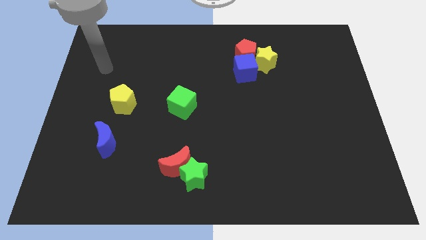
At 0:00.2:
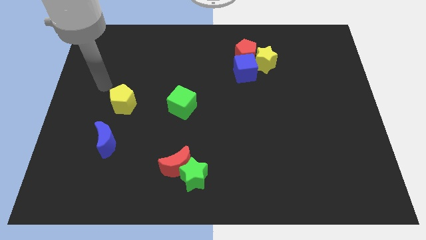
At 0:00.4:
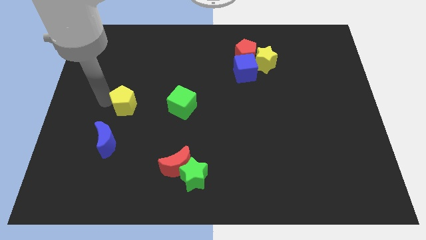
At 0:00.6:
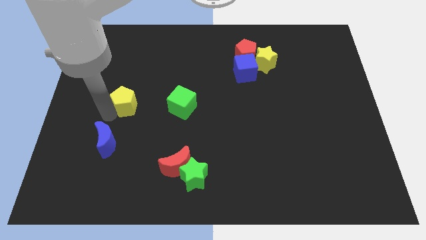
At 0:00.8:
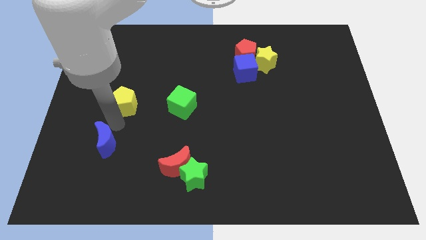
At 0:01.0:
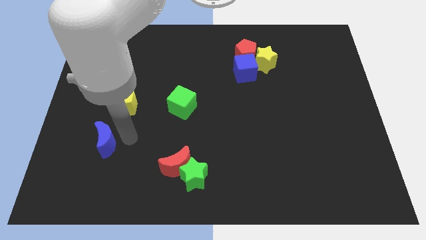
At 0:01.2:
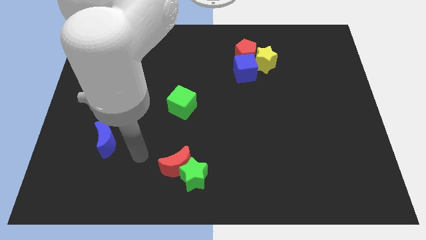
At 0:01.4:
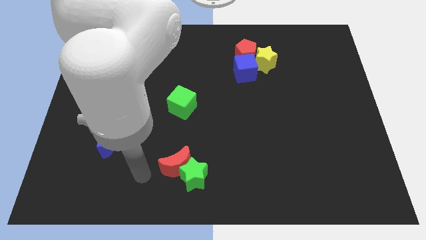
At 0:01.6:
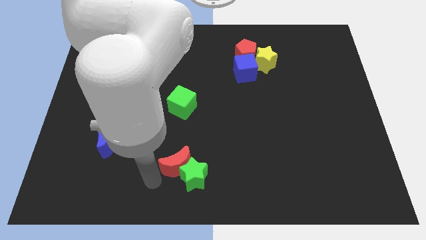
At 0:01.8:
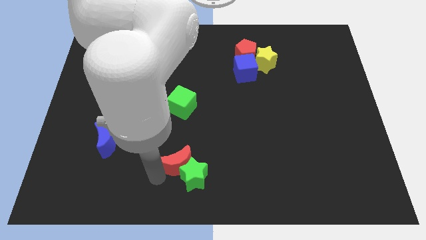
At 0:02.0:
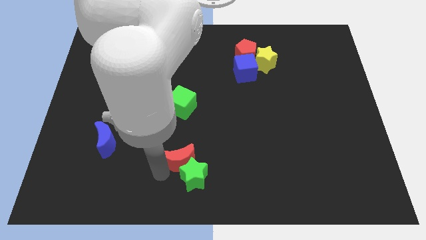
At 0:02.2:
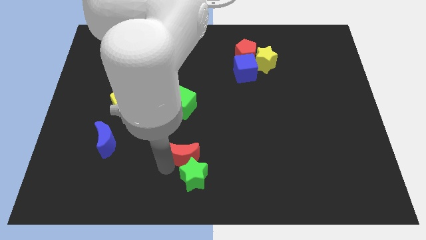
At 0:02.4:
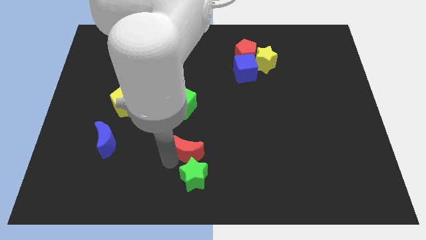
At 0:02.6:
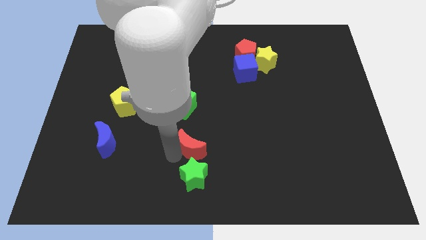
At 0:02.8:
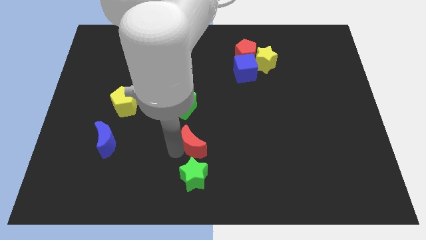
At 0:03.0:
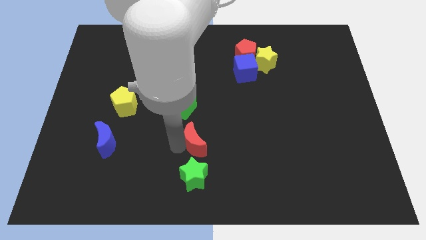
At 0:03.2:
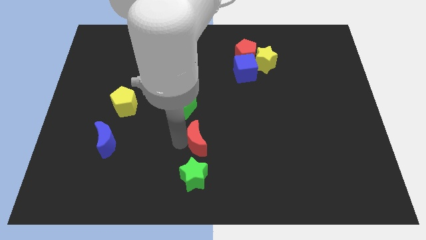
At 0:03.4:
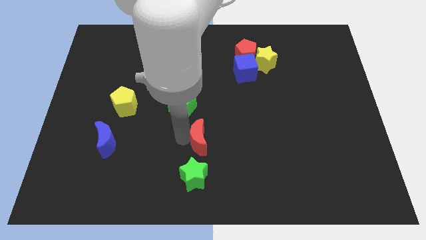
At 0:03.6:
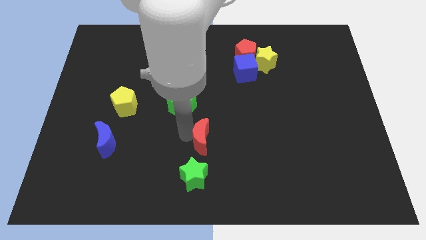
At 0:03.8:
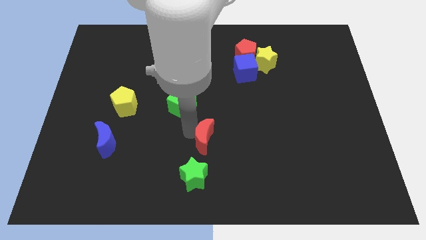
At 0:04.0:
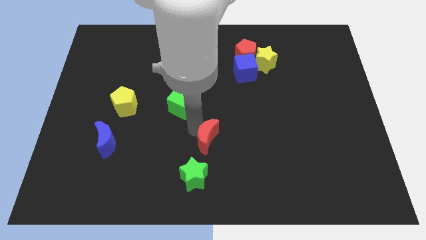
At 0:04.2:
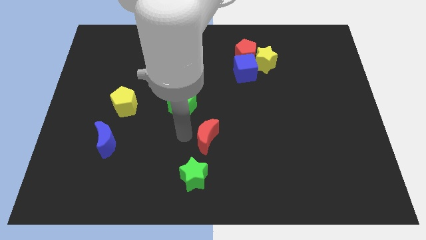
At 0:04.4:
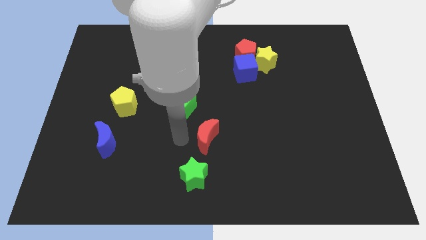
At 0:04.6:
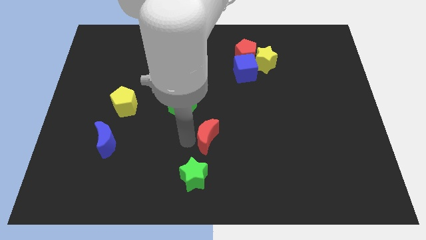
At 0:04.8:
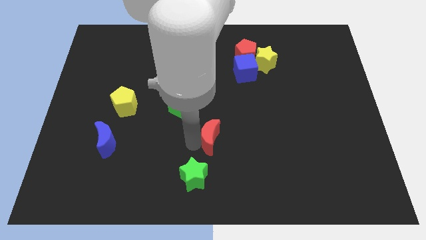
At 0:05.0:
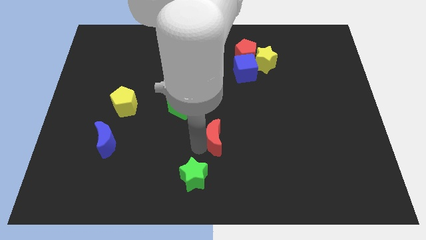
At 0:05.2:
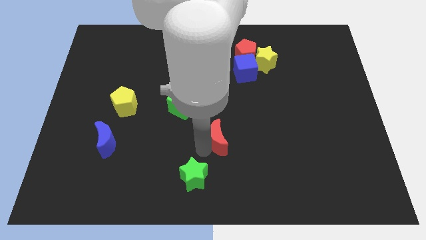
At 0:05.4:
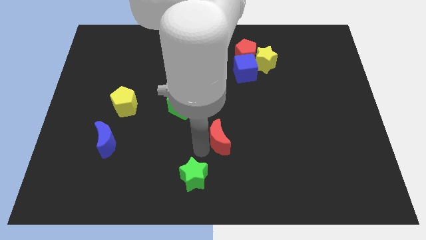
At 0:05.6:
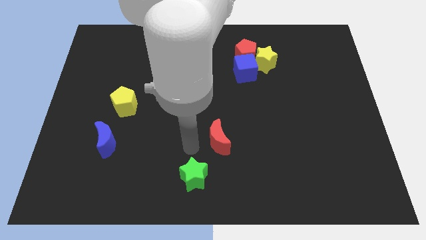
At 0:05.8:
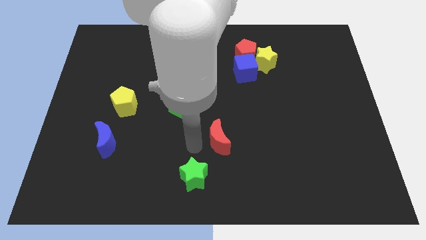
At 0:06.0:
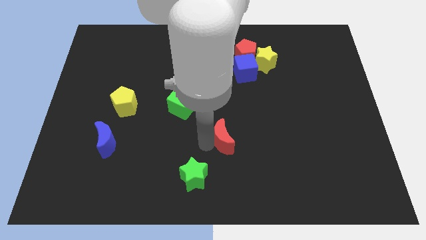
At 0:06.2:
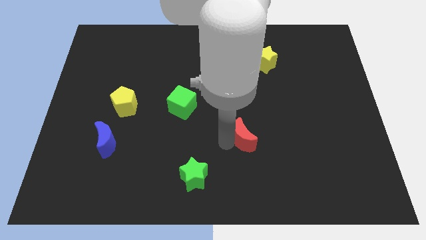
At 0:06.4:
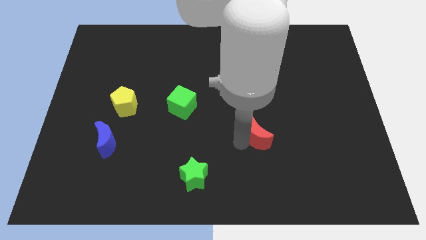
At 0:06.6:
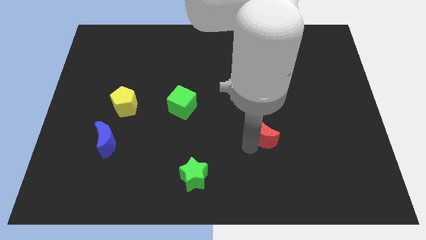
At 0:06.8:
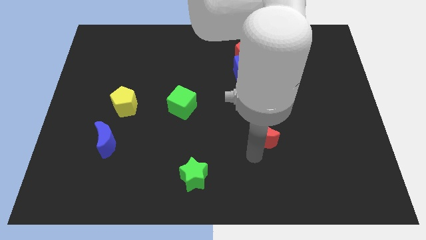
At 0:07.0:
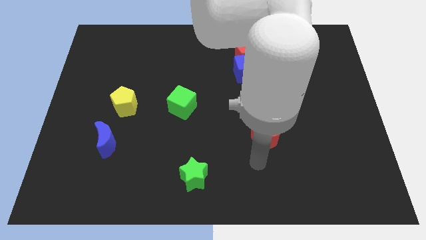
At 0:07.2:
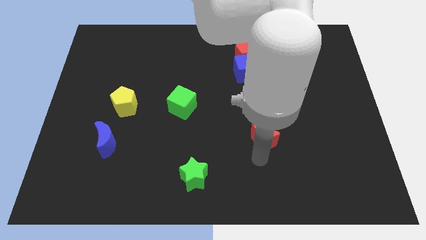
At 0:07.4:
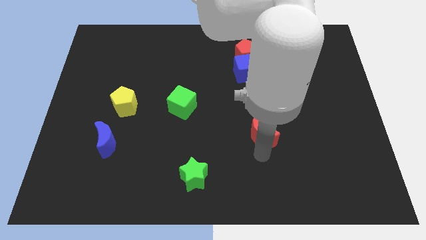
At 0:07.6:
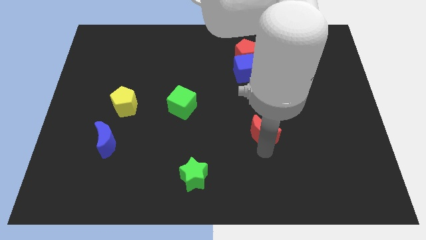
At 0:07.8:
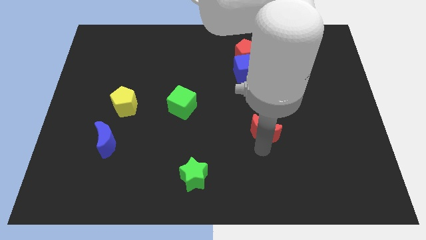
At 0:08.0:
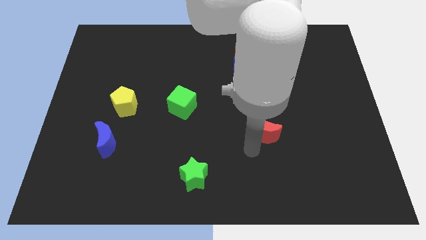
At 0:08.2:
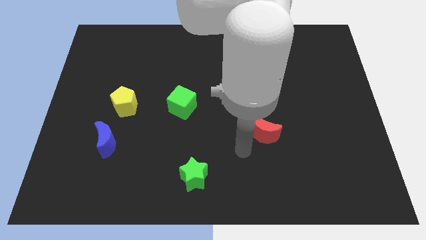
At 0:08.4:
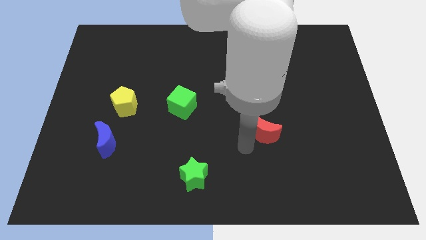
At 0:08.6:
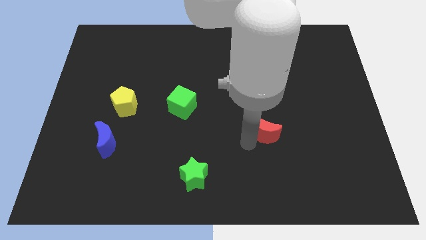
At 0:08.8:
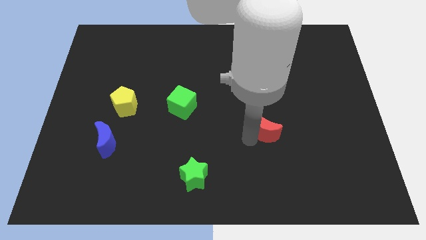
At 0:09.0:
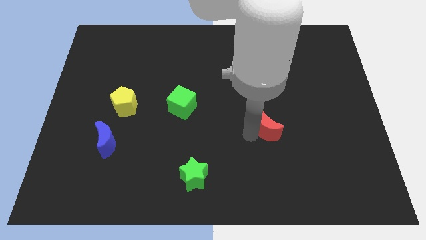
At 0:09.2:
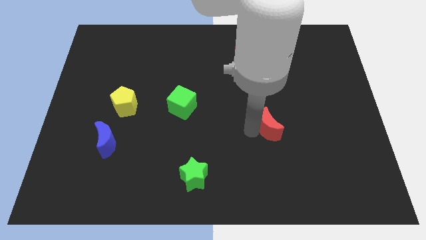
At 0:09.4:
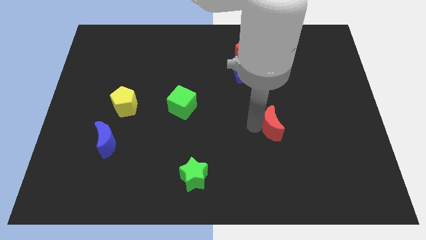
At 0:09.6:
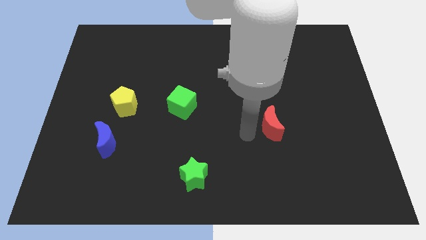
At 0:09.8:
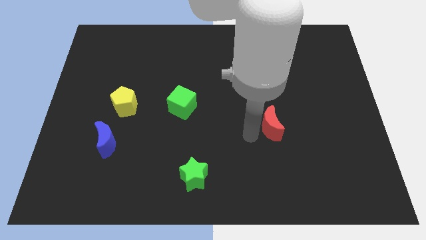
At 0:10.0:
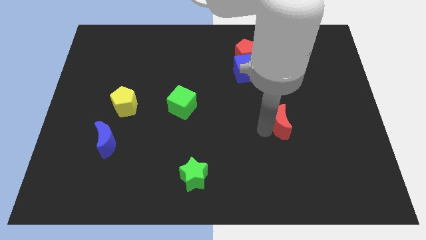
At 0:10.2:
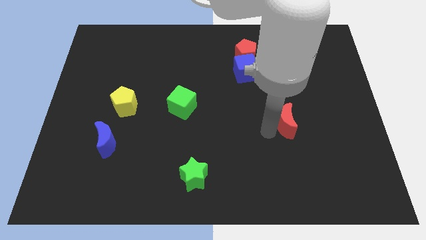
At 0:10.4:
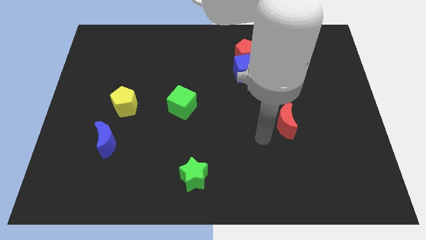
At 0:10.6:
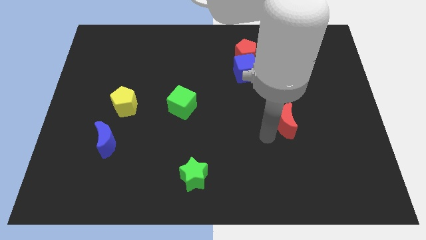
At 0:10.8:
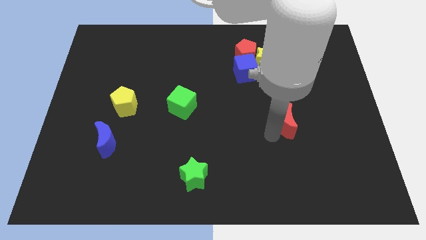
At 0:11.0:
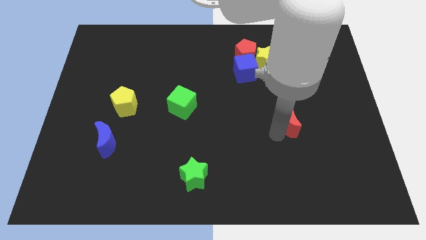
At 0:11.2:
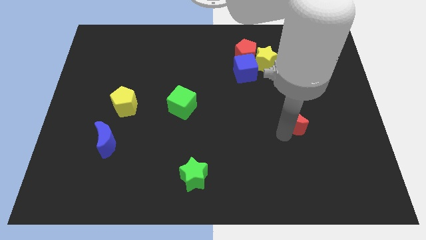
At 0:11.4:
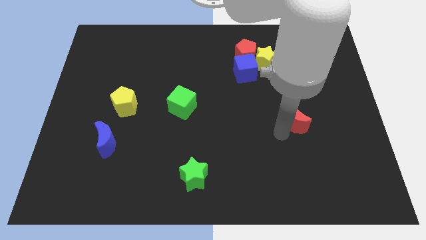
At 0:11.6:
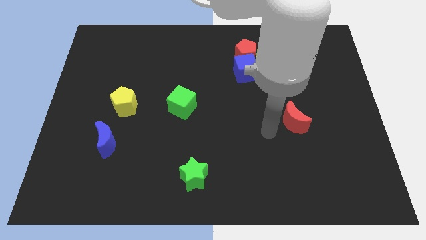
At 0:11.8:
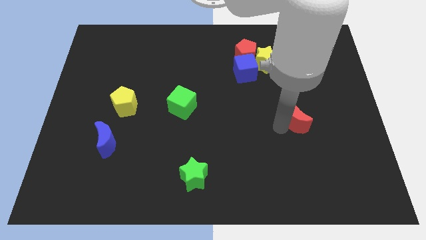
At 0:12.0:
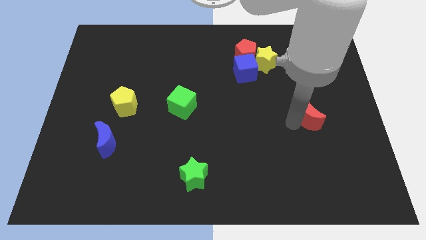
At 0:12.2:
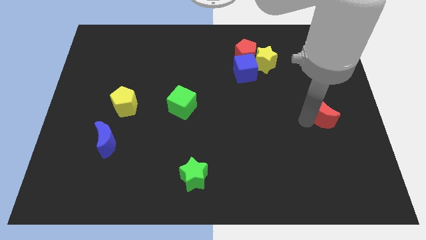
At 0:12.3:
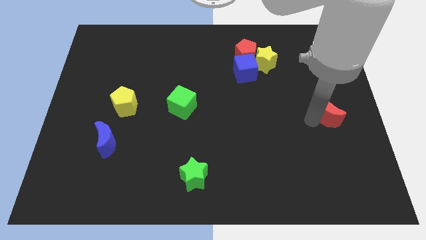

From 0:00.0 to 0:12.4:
move the red moon to the right side of the board
